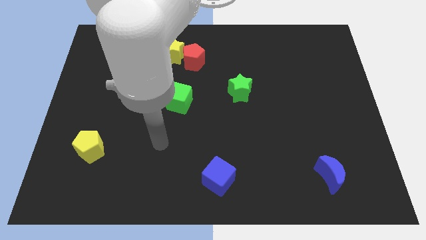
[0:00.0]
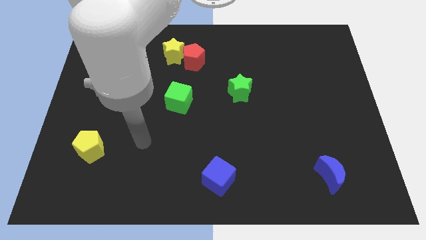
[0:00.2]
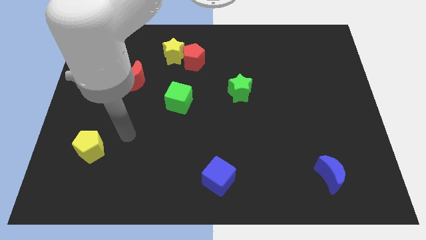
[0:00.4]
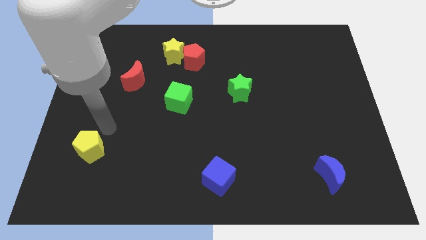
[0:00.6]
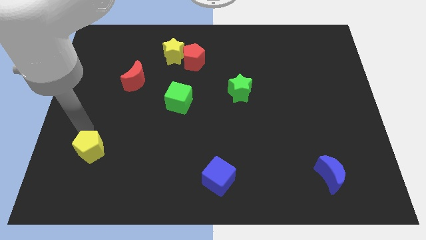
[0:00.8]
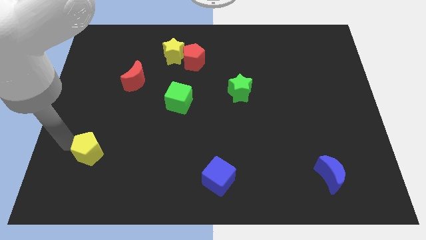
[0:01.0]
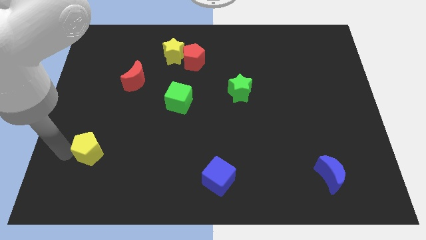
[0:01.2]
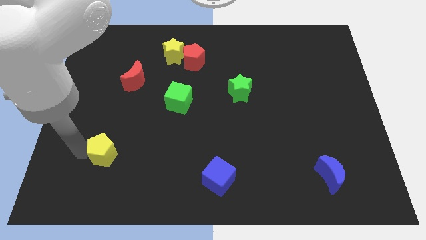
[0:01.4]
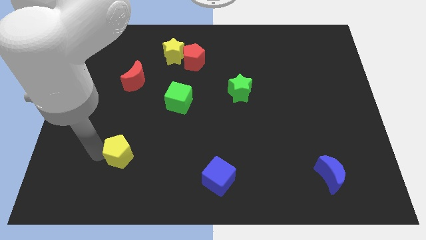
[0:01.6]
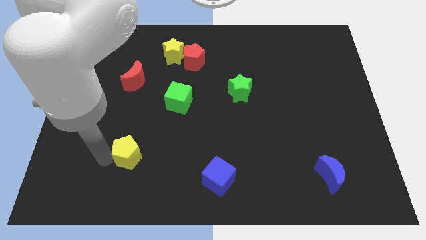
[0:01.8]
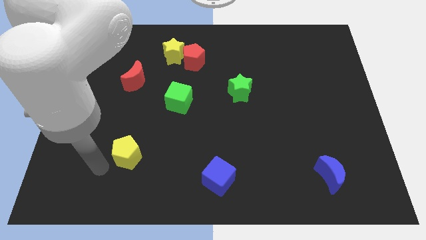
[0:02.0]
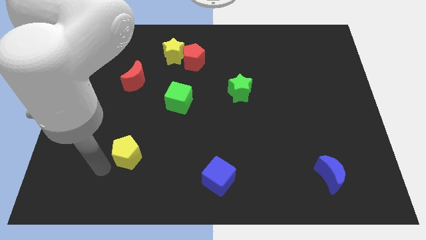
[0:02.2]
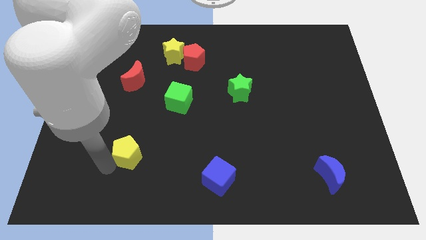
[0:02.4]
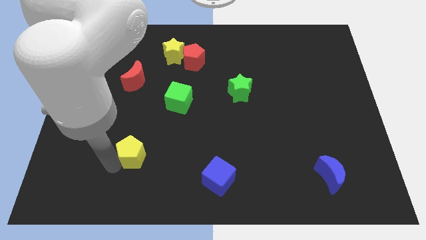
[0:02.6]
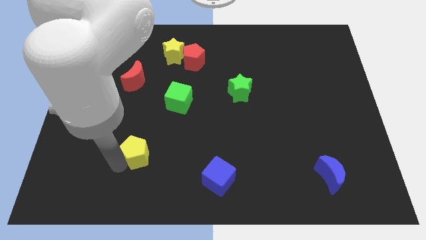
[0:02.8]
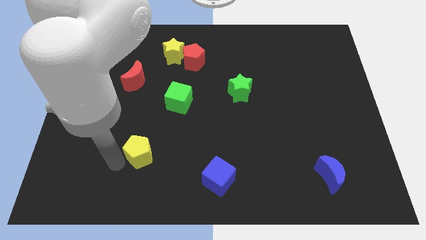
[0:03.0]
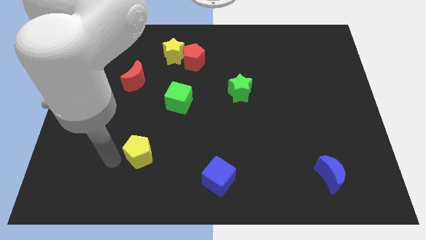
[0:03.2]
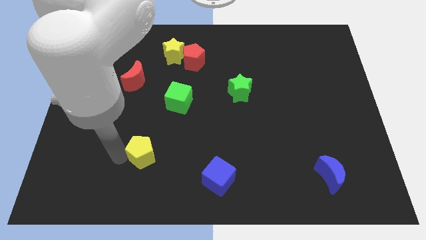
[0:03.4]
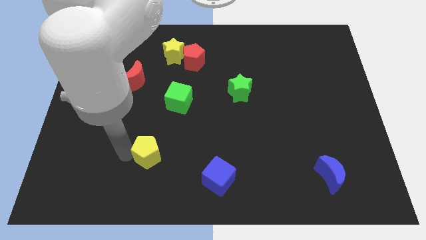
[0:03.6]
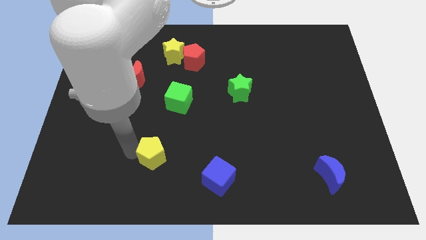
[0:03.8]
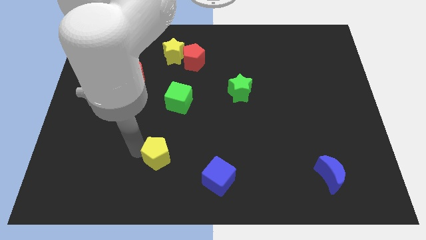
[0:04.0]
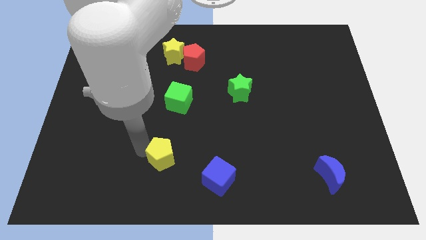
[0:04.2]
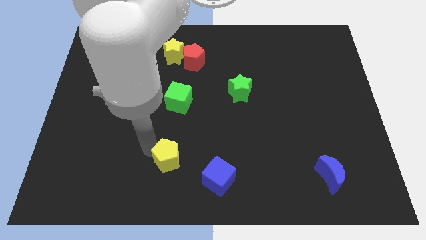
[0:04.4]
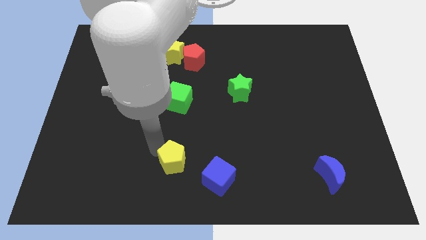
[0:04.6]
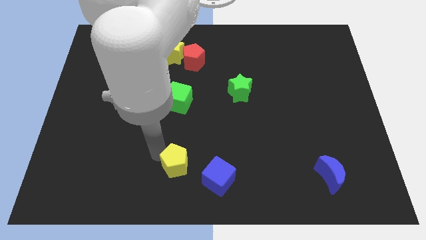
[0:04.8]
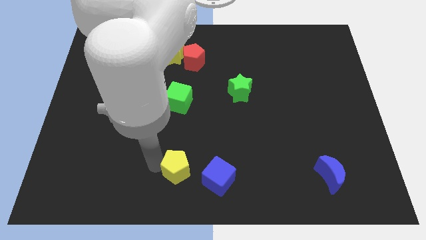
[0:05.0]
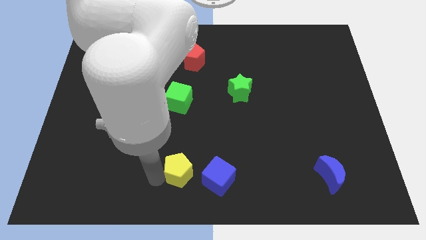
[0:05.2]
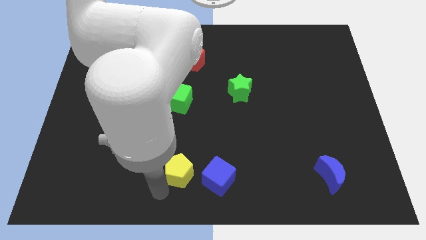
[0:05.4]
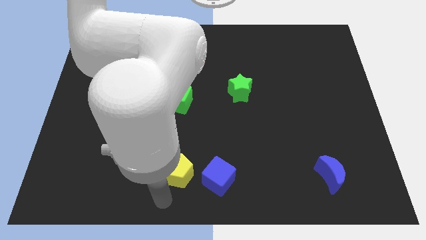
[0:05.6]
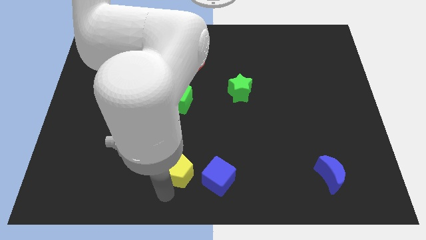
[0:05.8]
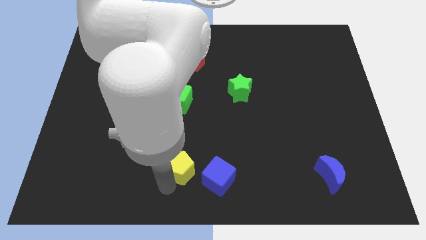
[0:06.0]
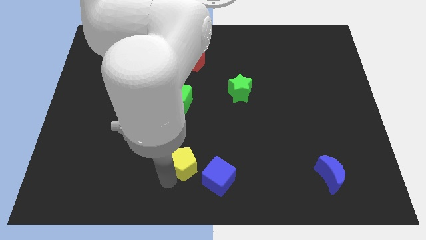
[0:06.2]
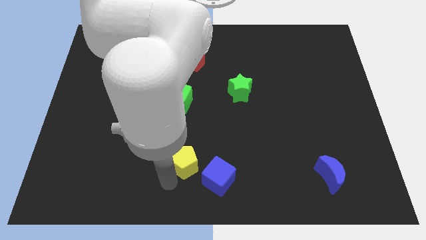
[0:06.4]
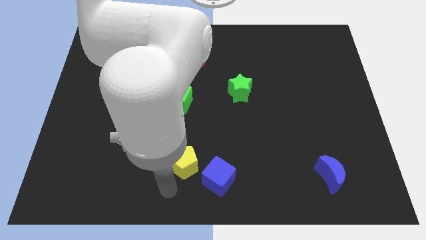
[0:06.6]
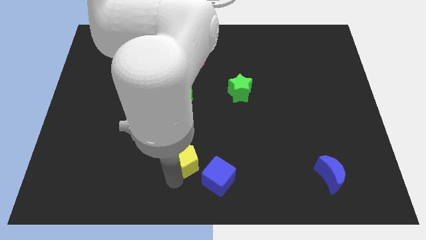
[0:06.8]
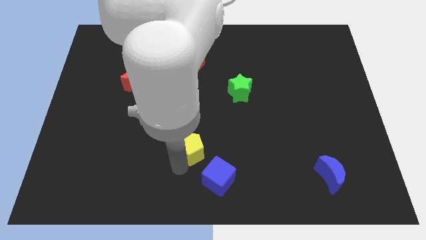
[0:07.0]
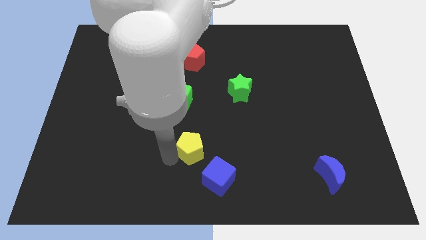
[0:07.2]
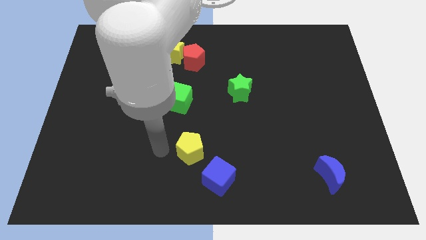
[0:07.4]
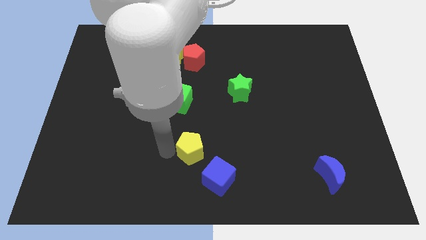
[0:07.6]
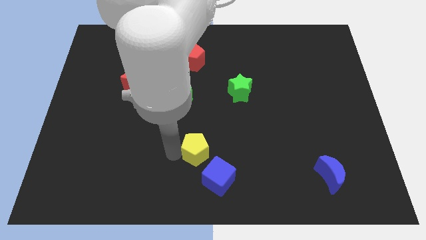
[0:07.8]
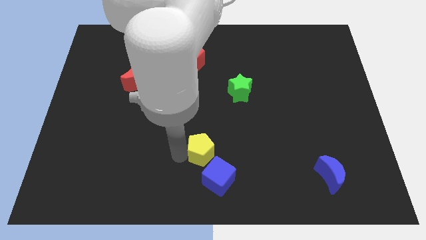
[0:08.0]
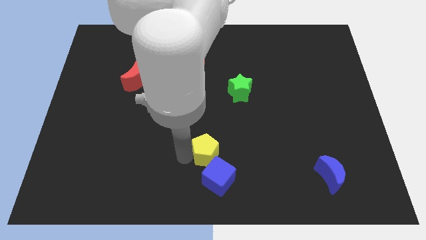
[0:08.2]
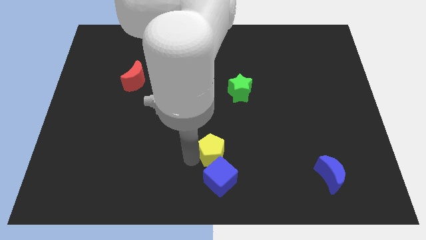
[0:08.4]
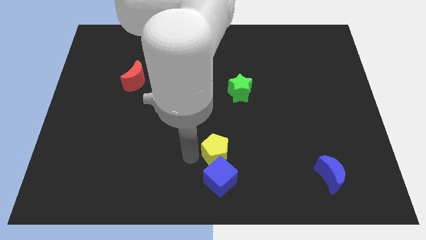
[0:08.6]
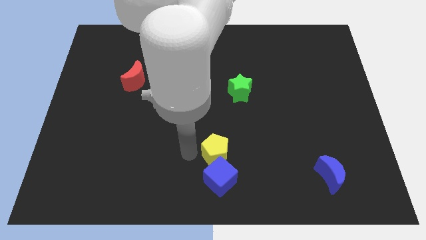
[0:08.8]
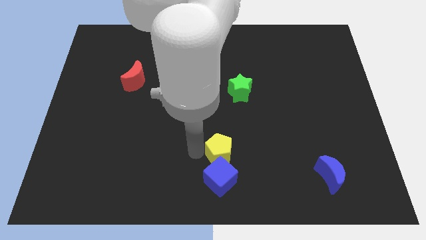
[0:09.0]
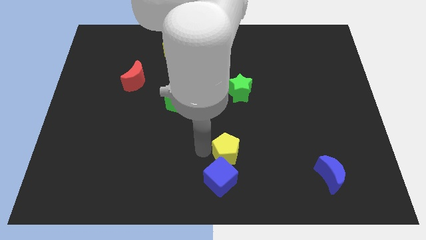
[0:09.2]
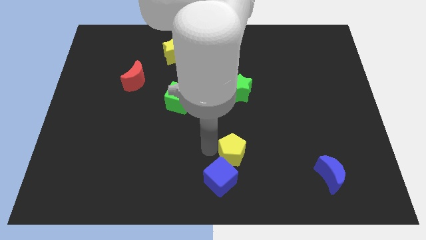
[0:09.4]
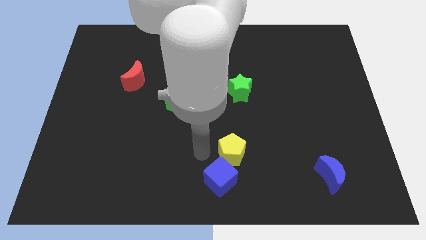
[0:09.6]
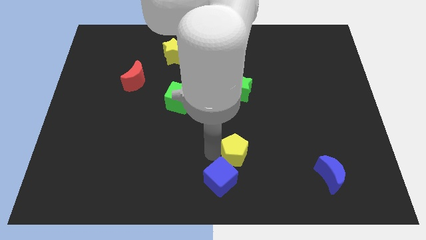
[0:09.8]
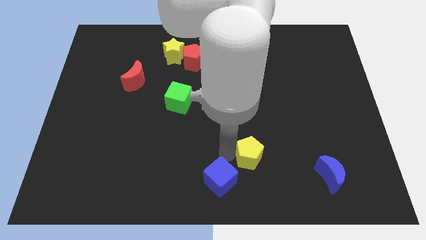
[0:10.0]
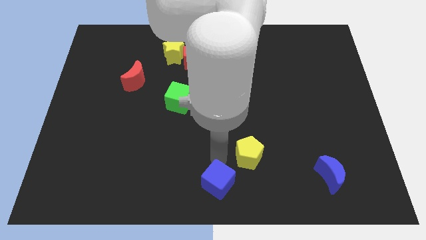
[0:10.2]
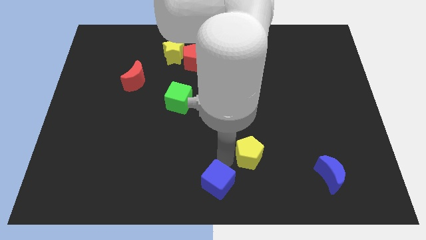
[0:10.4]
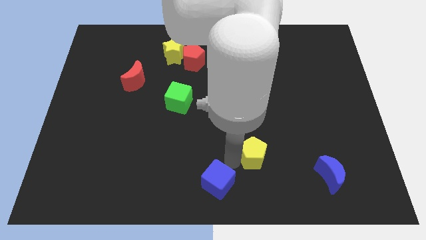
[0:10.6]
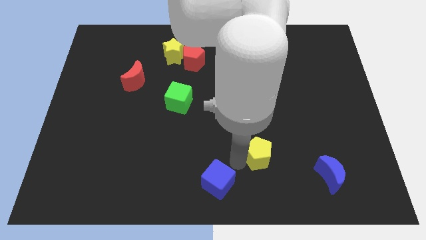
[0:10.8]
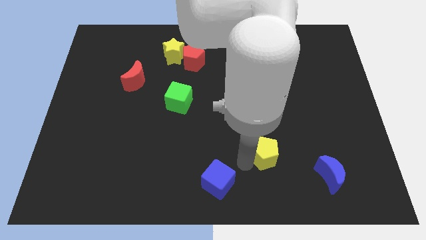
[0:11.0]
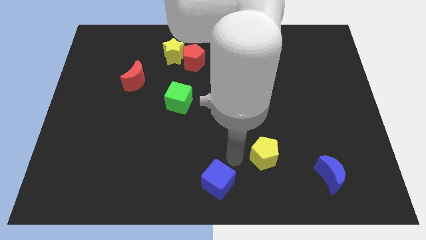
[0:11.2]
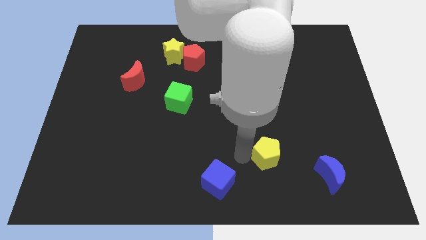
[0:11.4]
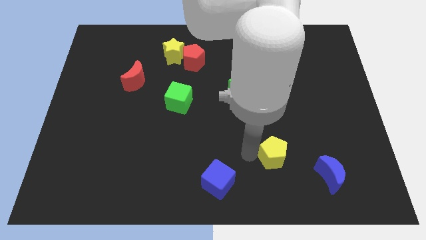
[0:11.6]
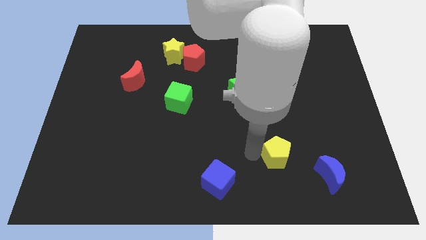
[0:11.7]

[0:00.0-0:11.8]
put the yellow pentagon to the top left of the blue moon
